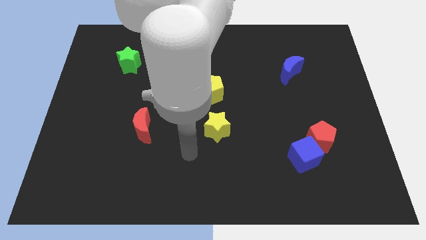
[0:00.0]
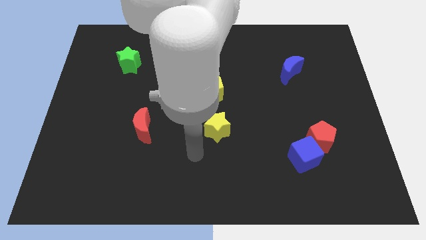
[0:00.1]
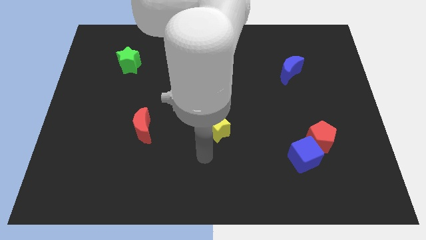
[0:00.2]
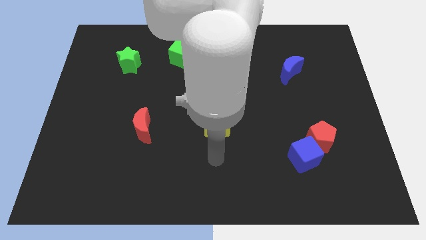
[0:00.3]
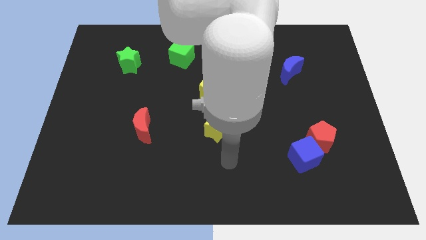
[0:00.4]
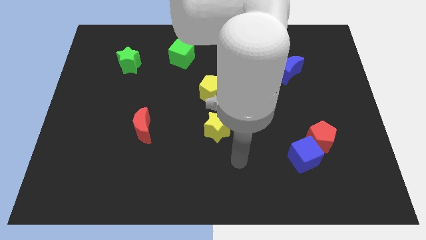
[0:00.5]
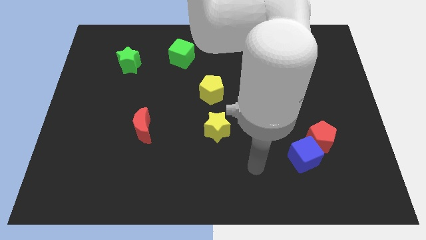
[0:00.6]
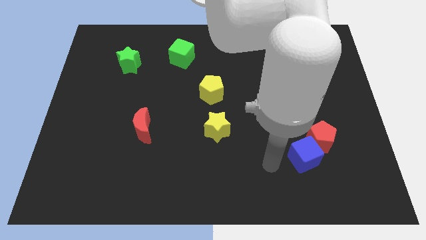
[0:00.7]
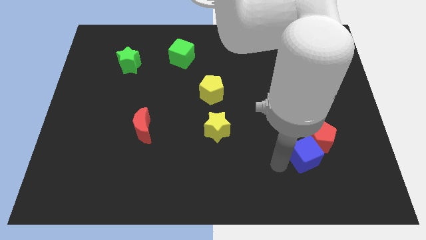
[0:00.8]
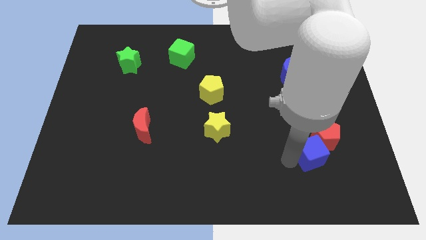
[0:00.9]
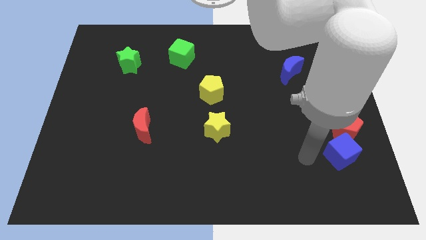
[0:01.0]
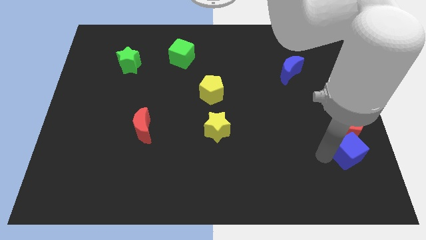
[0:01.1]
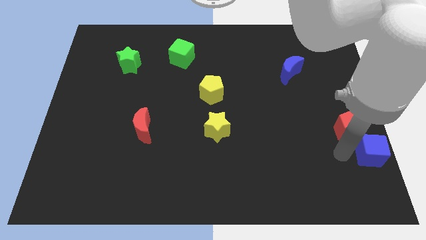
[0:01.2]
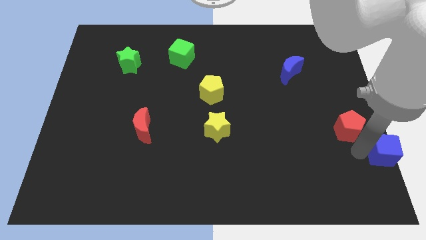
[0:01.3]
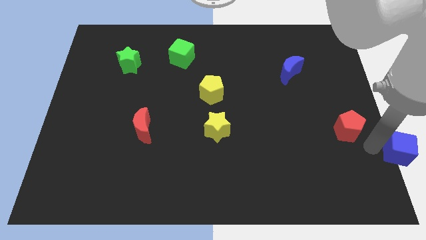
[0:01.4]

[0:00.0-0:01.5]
move the red pentagon away from the blue cube

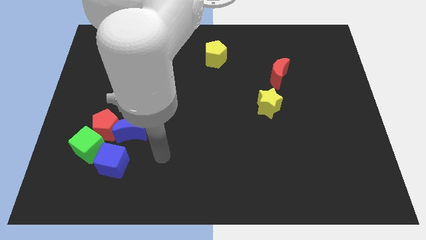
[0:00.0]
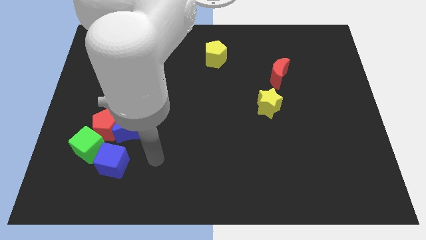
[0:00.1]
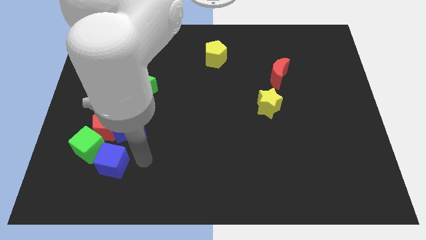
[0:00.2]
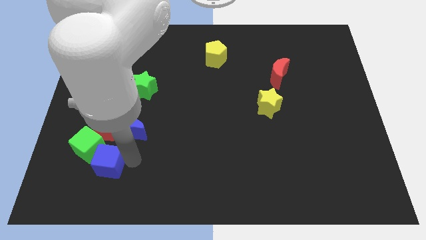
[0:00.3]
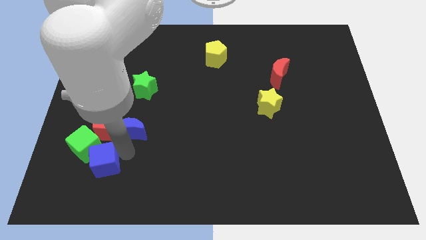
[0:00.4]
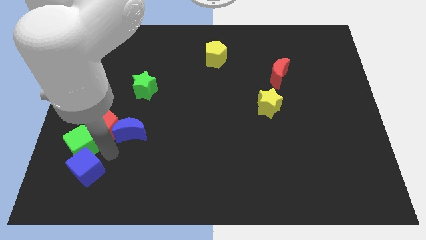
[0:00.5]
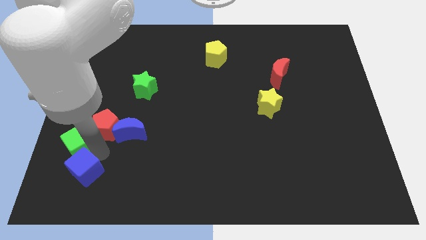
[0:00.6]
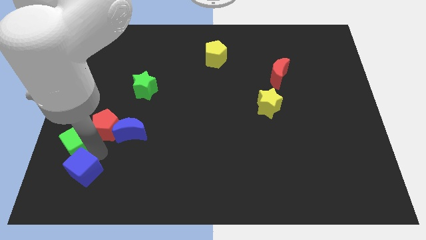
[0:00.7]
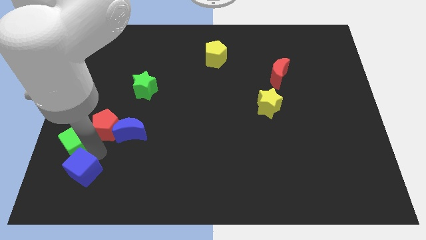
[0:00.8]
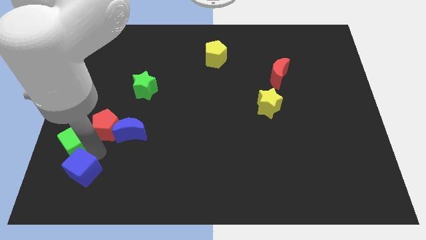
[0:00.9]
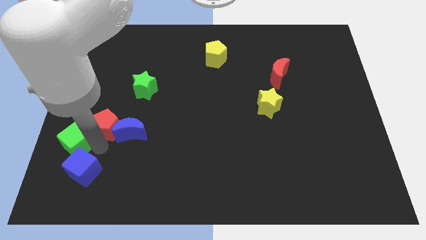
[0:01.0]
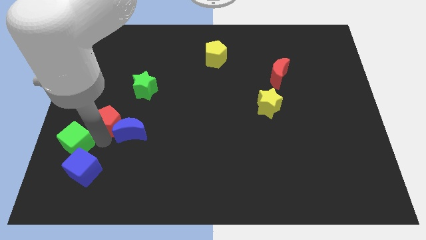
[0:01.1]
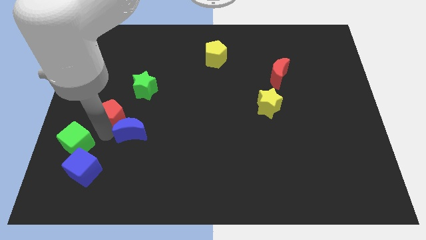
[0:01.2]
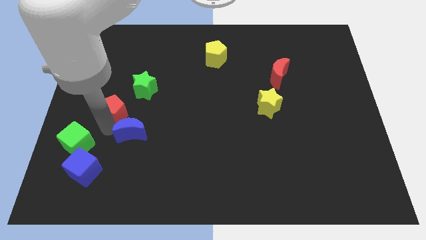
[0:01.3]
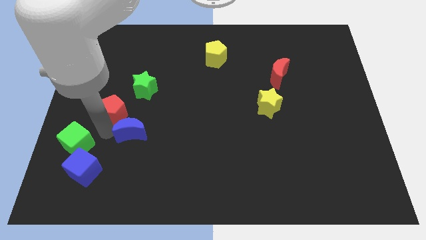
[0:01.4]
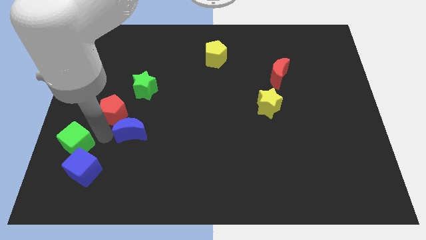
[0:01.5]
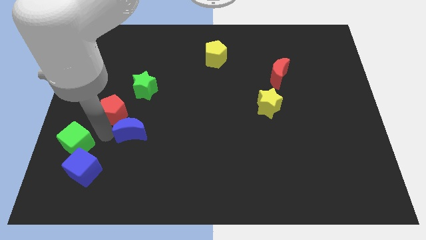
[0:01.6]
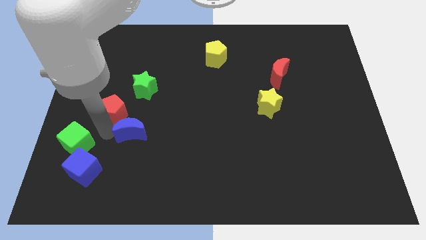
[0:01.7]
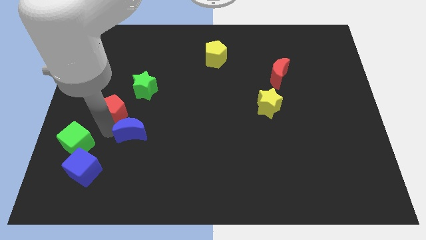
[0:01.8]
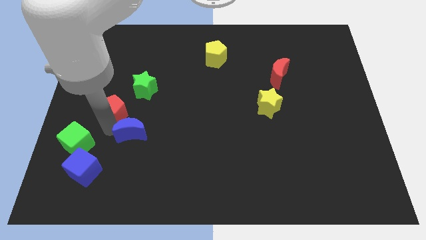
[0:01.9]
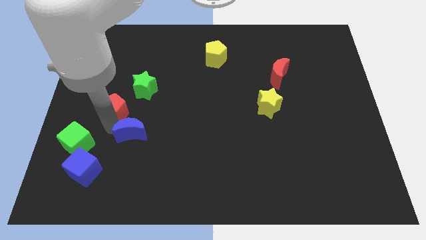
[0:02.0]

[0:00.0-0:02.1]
separate the red pentagon from the blue moon, green cube, and blue cube

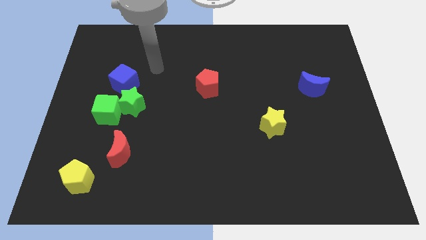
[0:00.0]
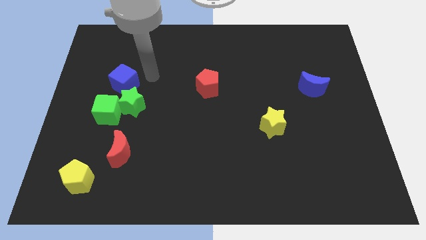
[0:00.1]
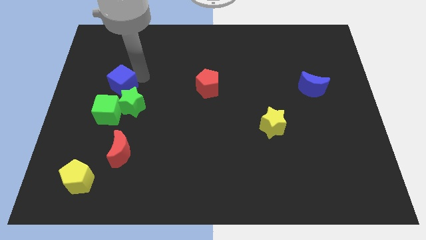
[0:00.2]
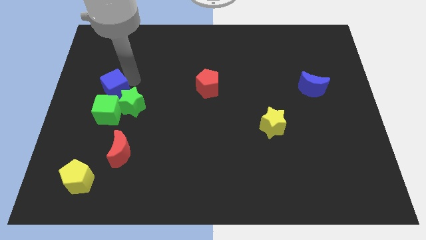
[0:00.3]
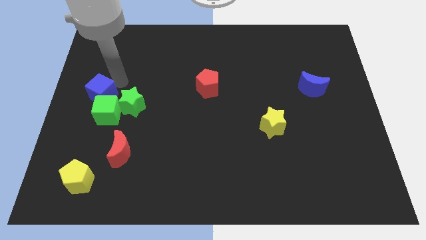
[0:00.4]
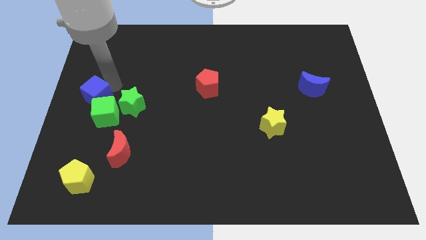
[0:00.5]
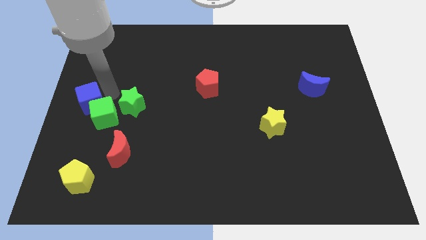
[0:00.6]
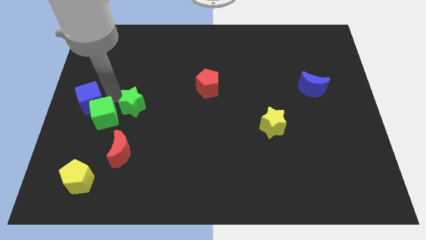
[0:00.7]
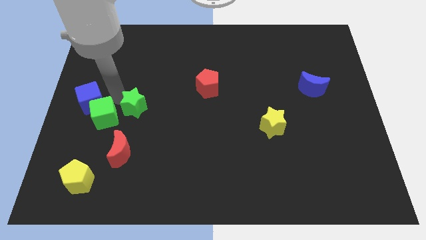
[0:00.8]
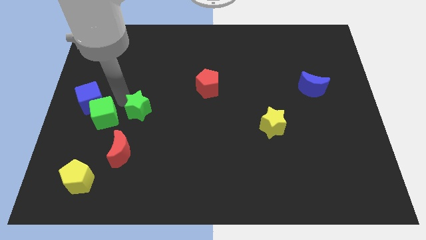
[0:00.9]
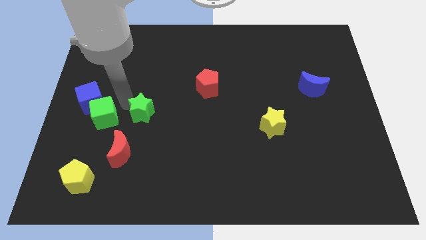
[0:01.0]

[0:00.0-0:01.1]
move the green star away from the green cube and blue cube

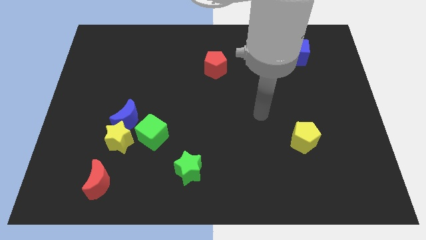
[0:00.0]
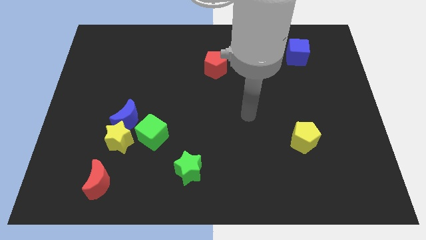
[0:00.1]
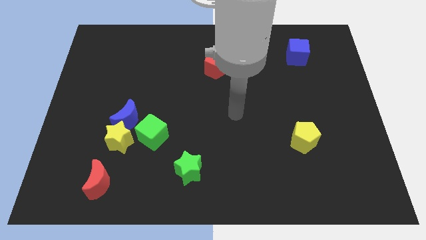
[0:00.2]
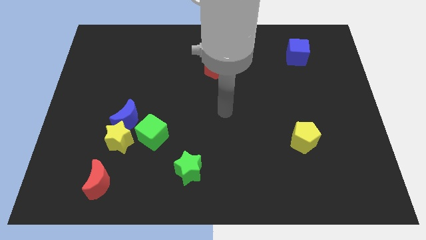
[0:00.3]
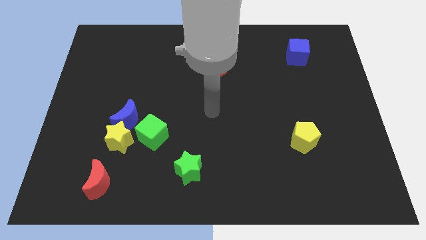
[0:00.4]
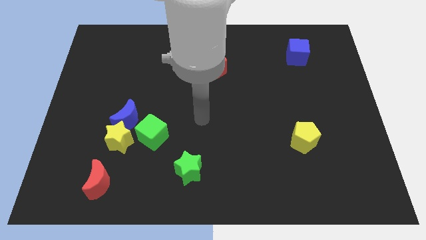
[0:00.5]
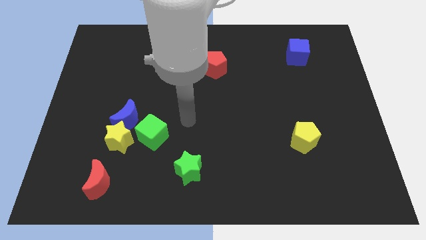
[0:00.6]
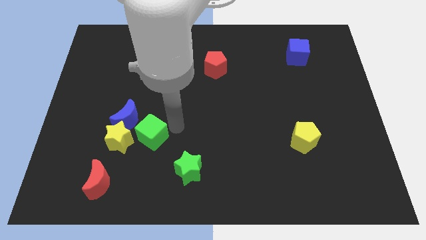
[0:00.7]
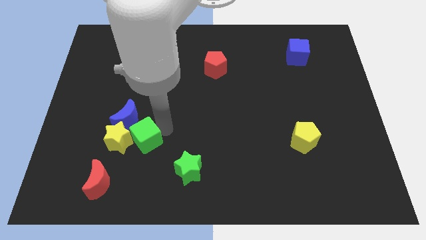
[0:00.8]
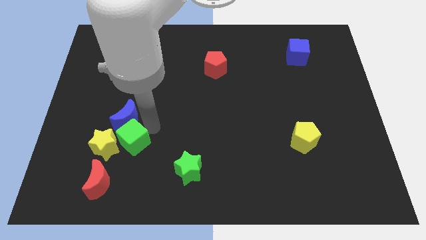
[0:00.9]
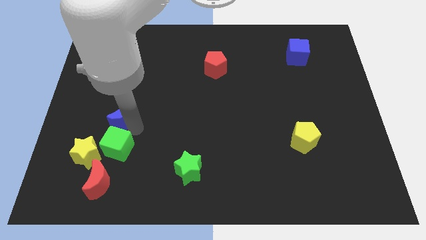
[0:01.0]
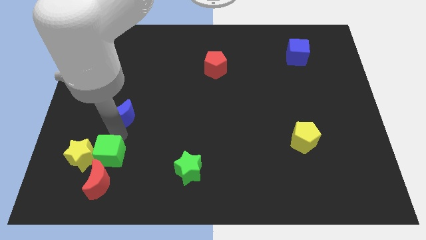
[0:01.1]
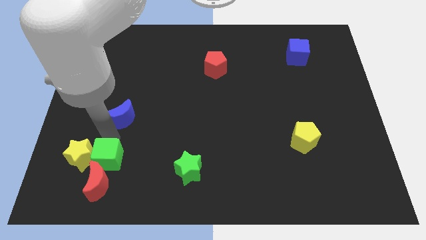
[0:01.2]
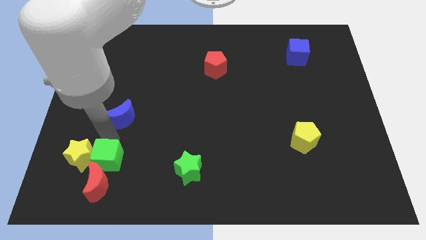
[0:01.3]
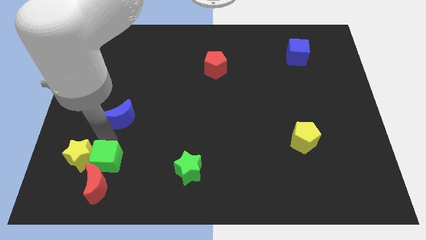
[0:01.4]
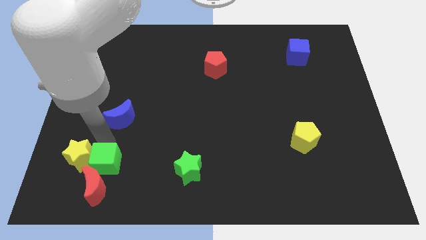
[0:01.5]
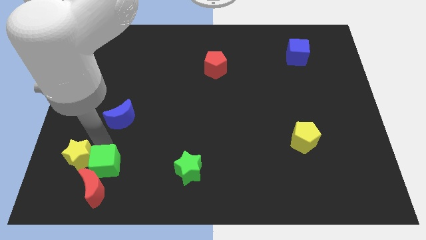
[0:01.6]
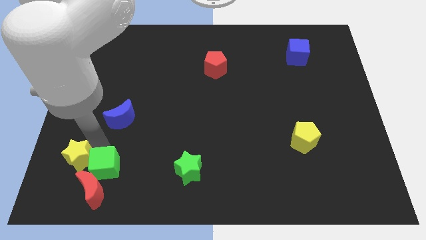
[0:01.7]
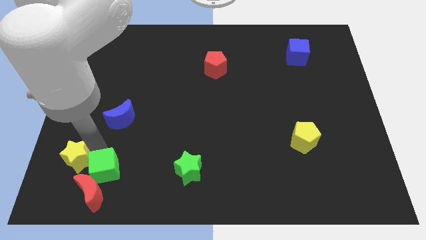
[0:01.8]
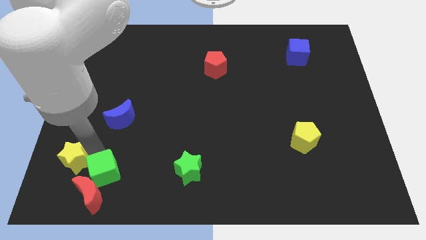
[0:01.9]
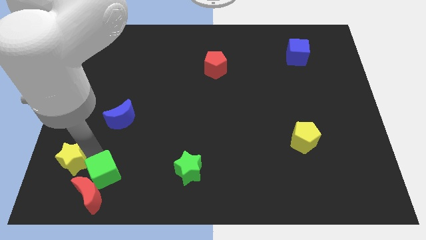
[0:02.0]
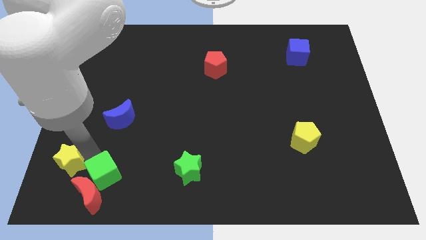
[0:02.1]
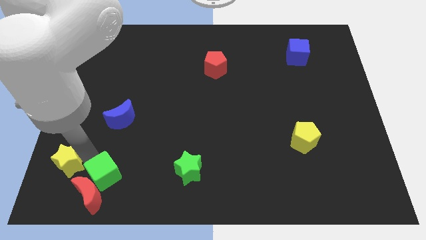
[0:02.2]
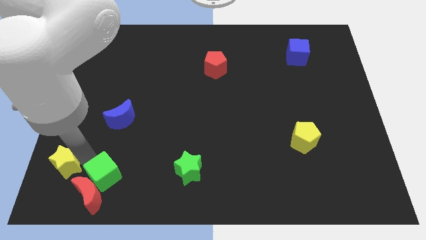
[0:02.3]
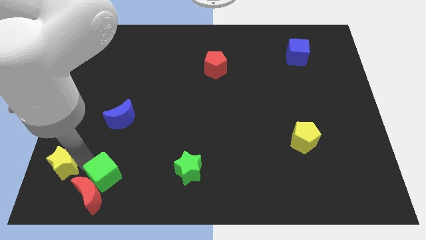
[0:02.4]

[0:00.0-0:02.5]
separate the yellow star from the blue moon and green cube

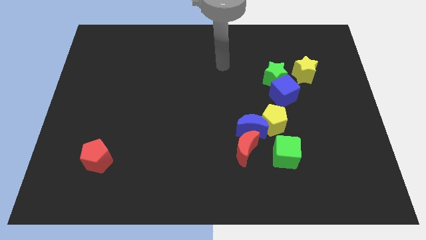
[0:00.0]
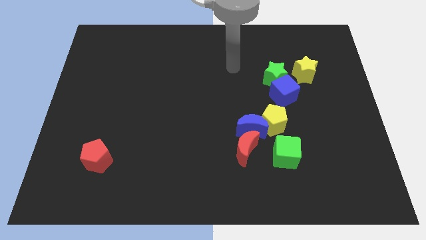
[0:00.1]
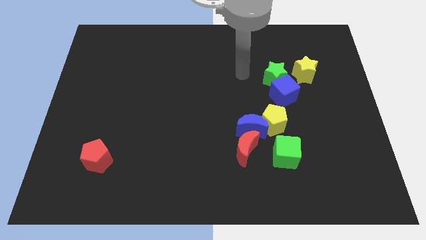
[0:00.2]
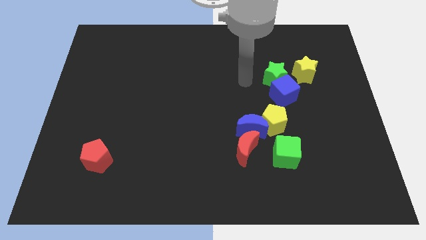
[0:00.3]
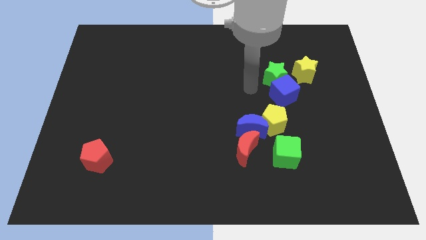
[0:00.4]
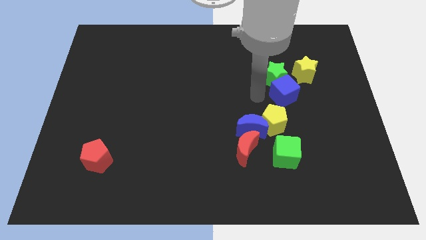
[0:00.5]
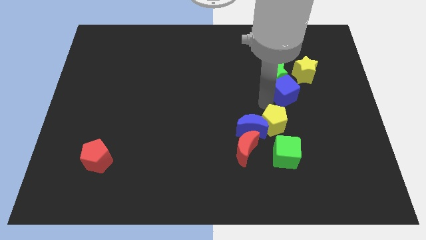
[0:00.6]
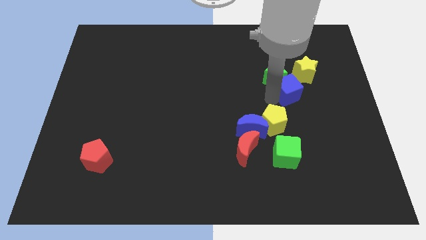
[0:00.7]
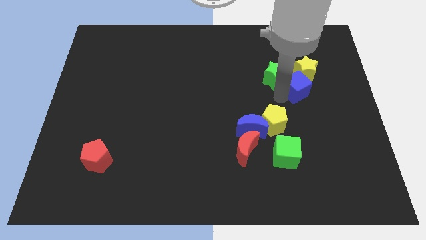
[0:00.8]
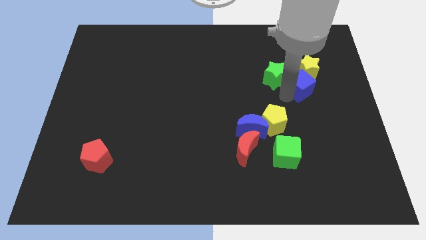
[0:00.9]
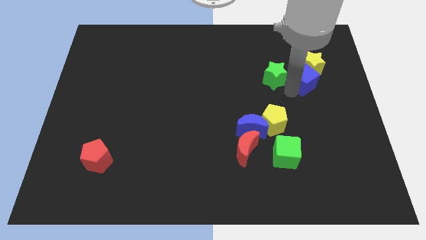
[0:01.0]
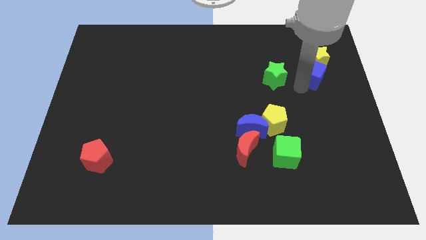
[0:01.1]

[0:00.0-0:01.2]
move the green star away from the blue cube and yellow star

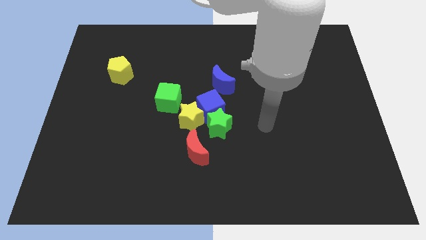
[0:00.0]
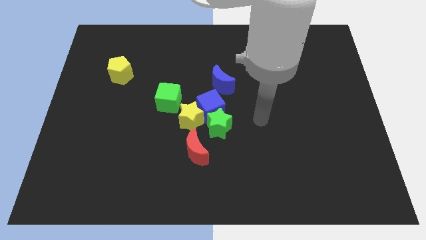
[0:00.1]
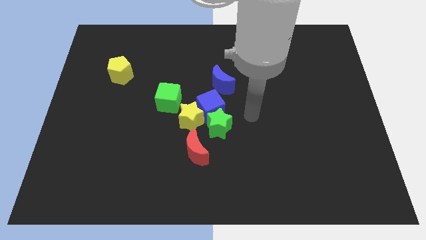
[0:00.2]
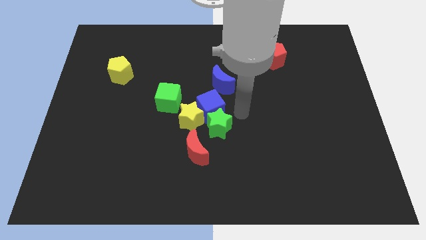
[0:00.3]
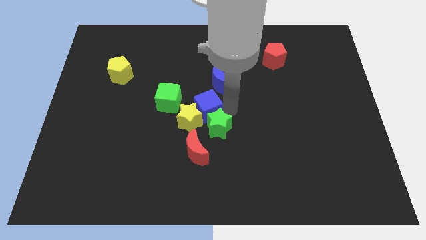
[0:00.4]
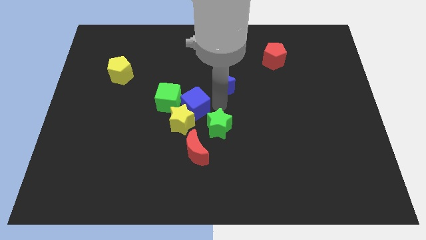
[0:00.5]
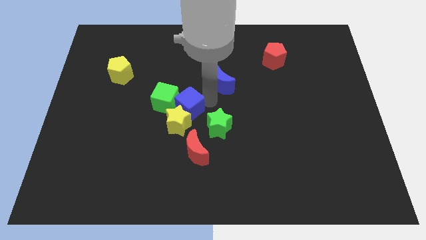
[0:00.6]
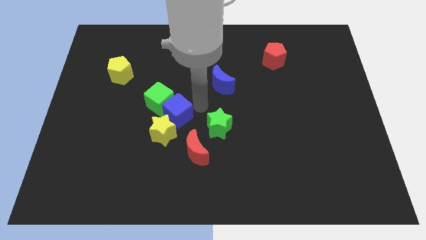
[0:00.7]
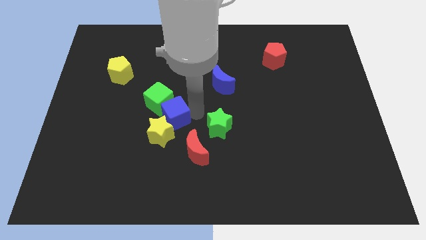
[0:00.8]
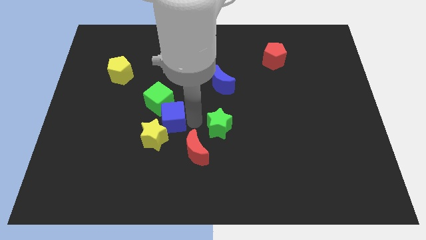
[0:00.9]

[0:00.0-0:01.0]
separate the green star from the blue cube, yellow star, and red moon
